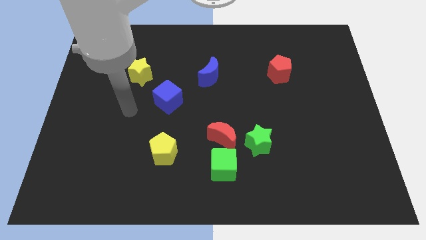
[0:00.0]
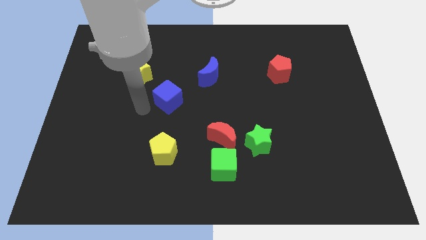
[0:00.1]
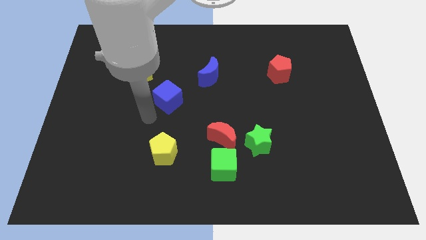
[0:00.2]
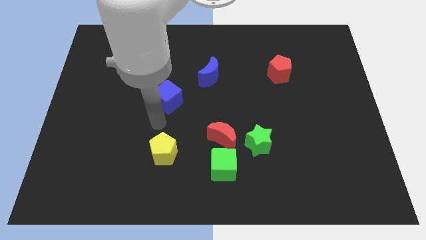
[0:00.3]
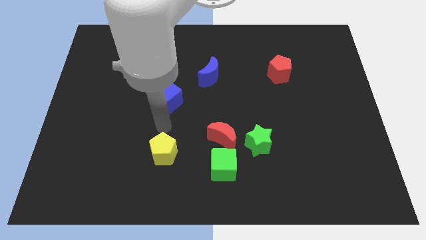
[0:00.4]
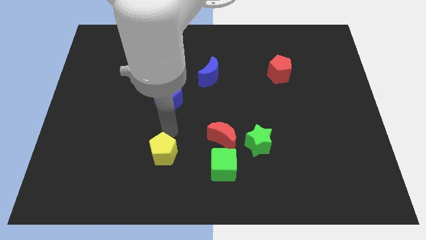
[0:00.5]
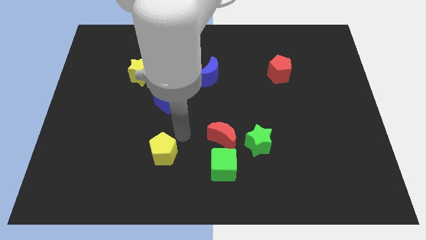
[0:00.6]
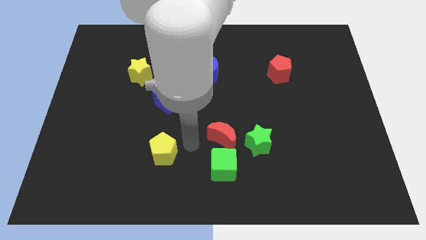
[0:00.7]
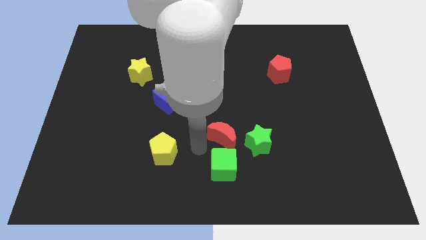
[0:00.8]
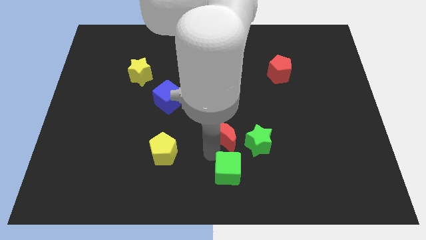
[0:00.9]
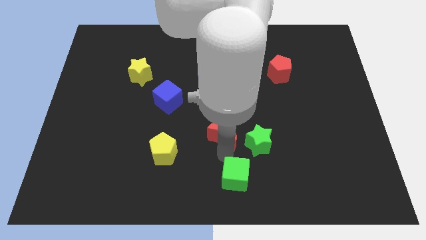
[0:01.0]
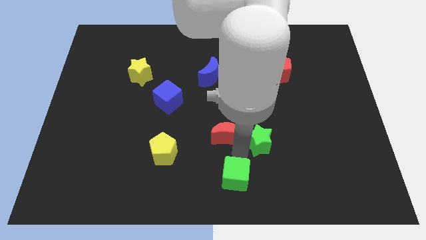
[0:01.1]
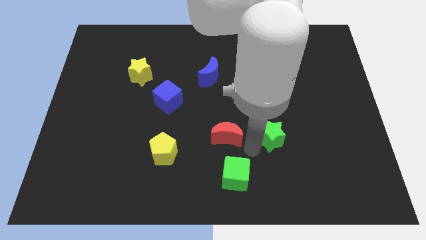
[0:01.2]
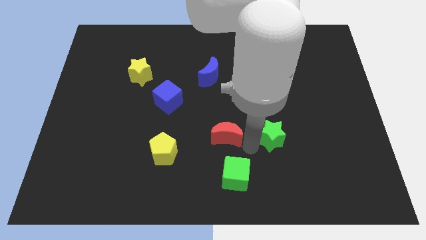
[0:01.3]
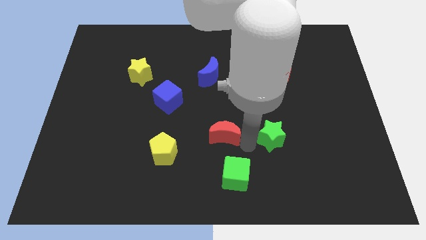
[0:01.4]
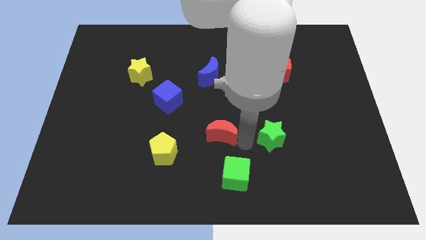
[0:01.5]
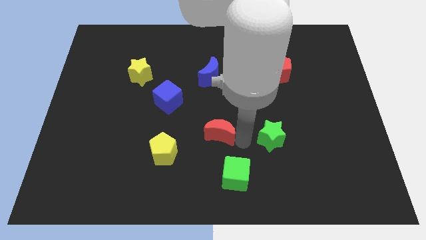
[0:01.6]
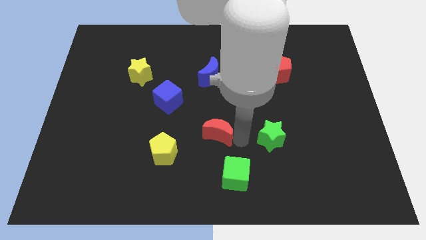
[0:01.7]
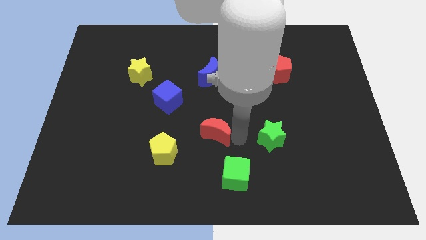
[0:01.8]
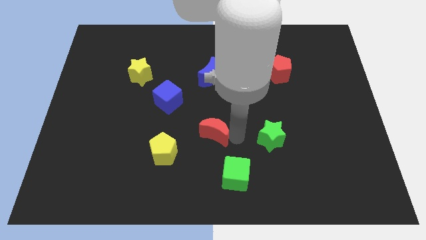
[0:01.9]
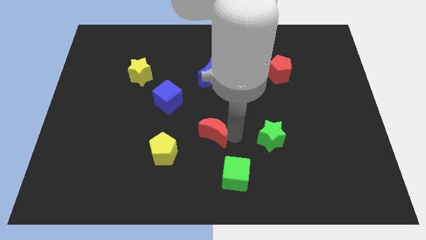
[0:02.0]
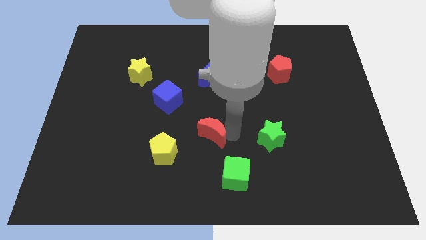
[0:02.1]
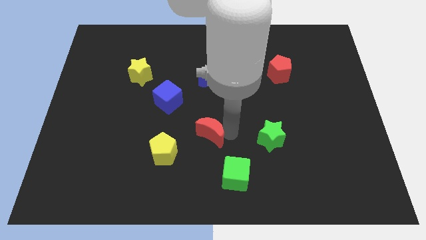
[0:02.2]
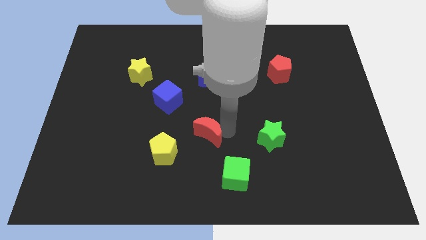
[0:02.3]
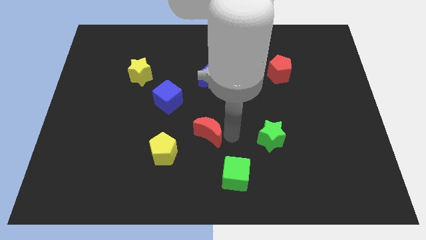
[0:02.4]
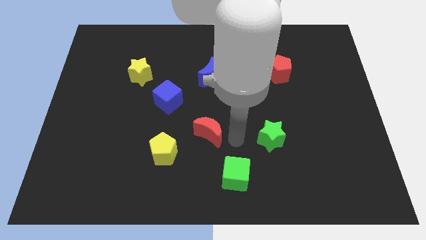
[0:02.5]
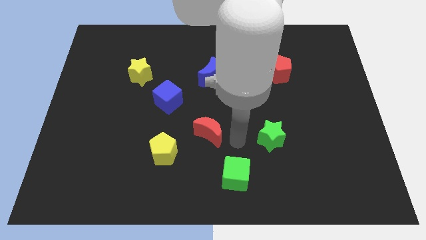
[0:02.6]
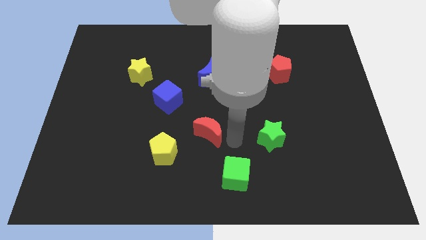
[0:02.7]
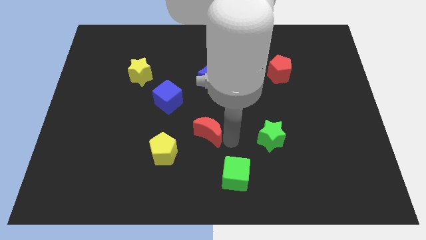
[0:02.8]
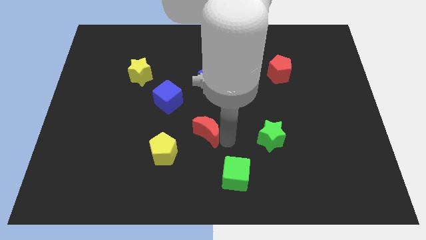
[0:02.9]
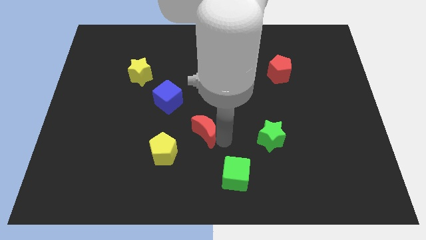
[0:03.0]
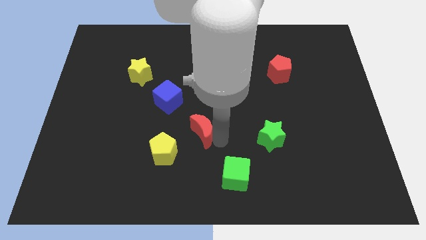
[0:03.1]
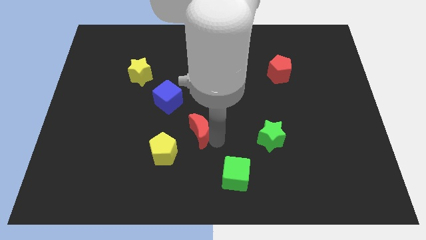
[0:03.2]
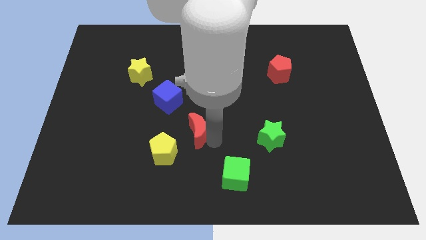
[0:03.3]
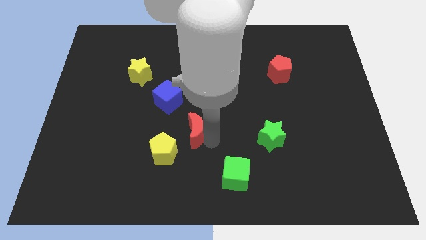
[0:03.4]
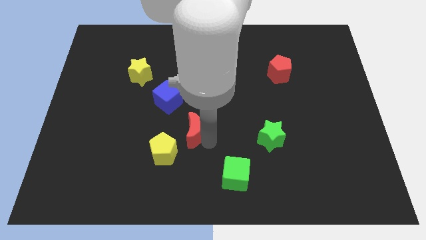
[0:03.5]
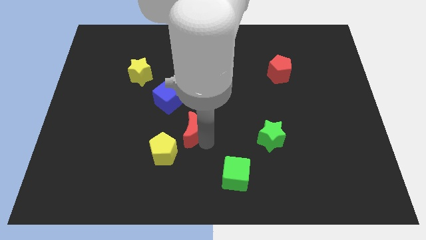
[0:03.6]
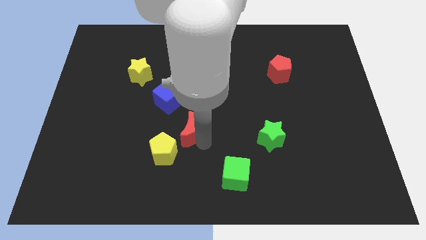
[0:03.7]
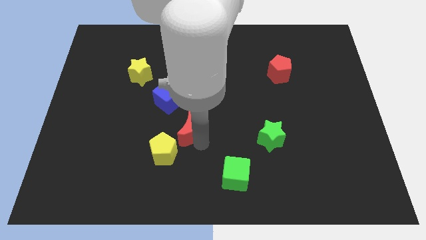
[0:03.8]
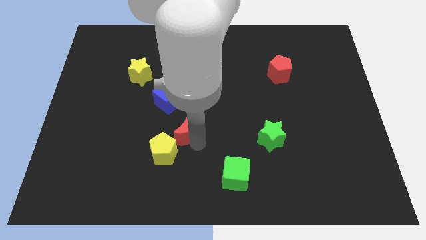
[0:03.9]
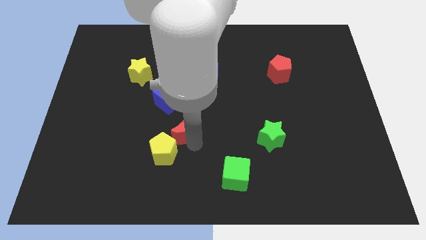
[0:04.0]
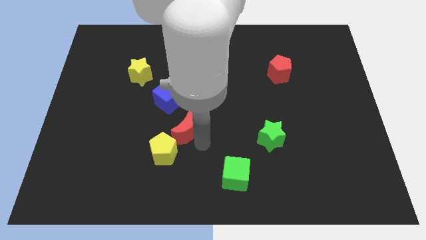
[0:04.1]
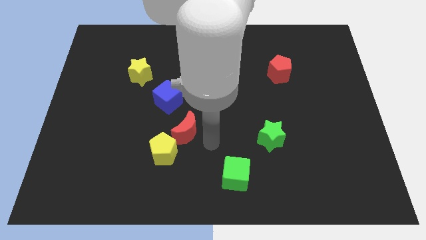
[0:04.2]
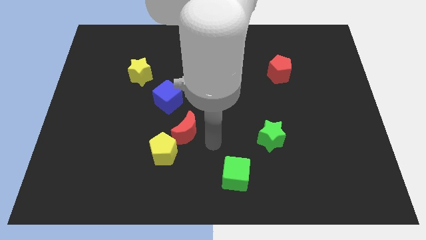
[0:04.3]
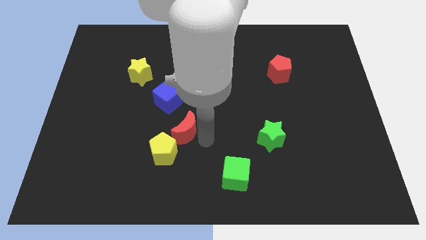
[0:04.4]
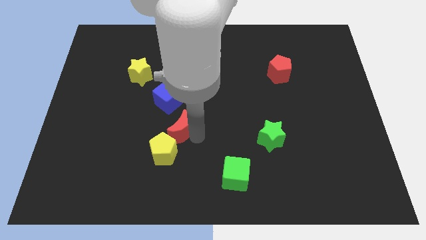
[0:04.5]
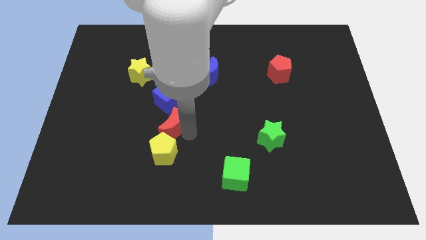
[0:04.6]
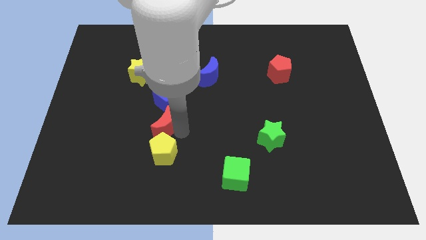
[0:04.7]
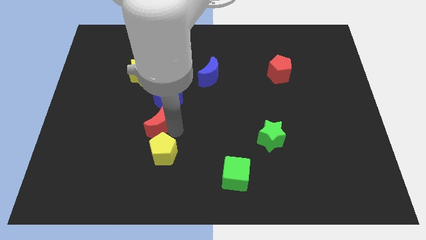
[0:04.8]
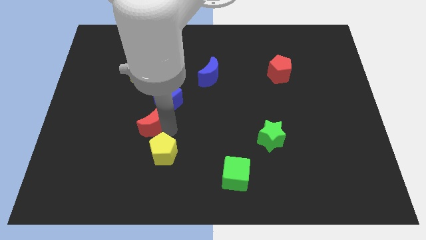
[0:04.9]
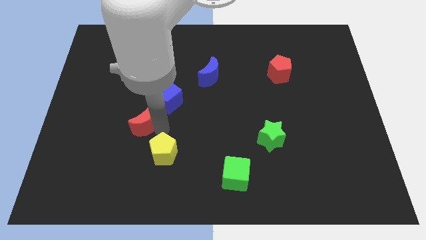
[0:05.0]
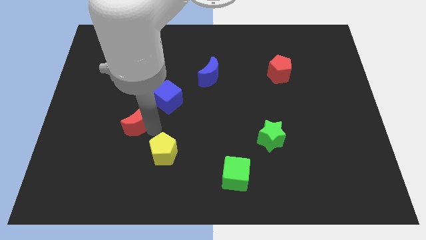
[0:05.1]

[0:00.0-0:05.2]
put the red moon to the bottom side of the yellow star

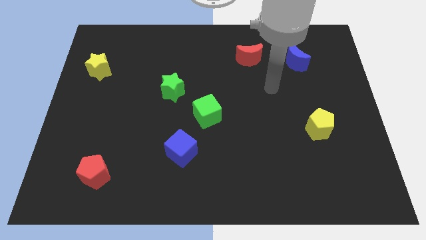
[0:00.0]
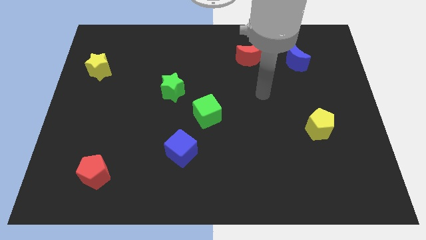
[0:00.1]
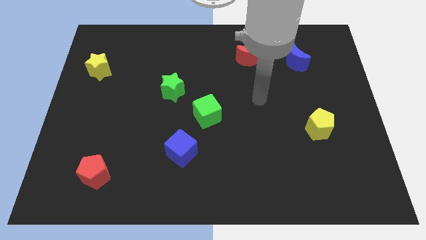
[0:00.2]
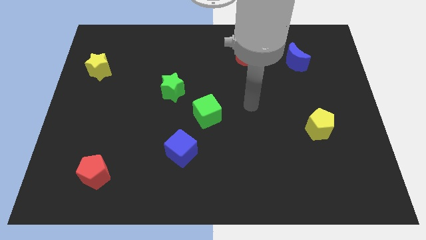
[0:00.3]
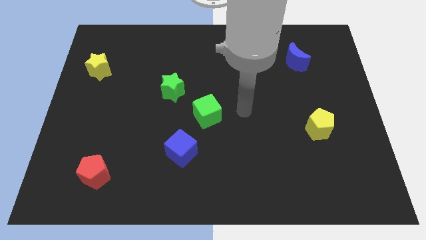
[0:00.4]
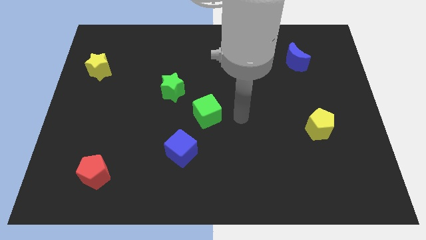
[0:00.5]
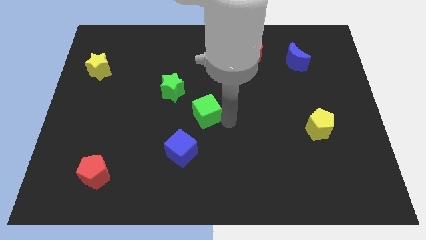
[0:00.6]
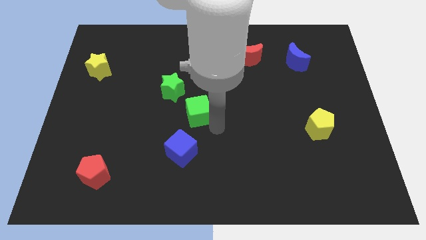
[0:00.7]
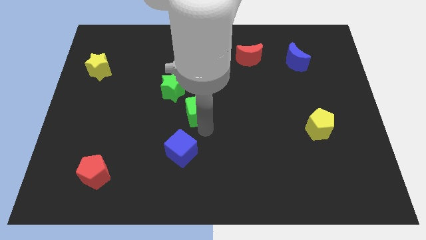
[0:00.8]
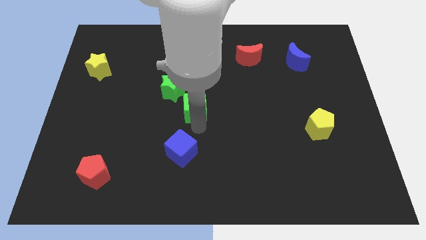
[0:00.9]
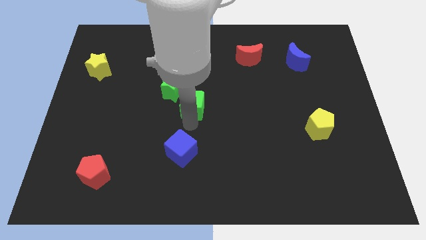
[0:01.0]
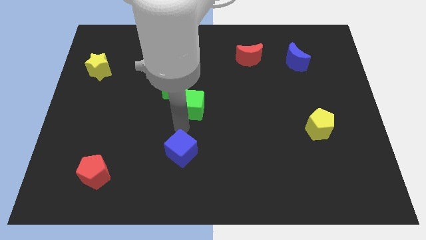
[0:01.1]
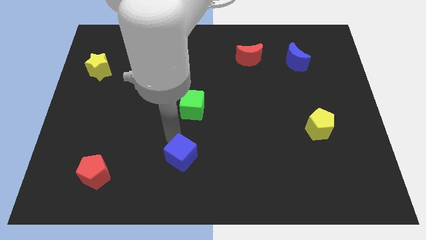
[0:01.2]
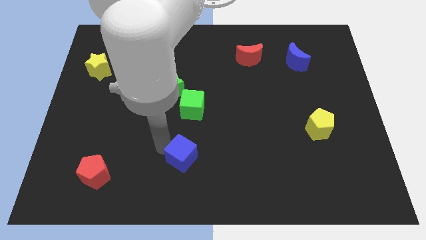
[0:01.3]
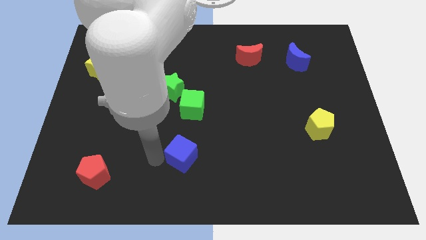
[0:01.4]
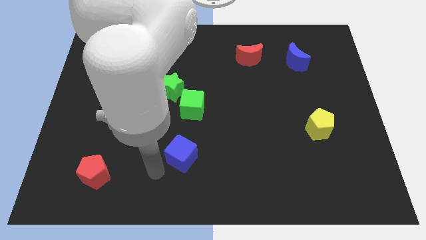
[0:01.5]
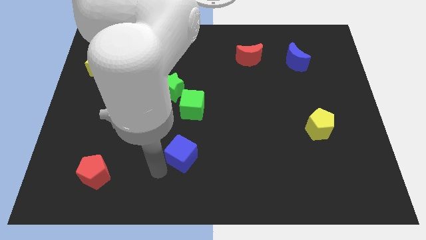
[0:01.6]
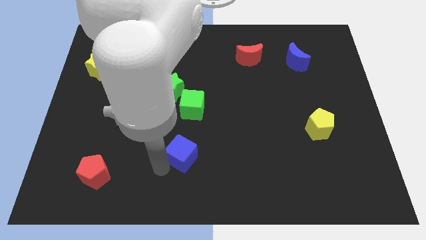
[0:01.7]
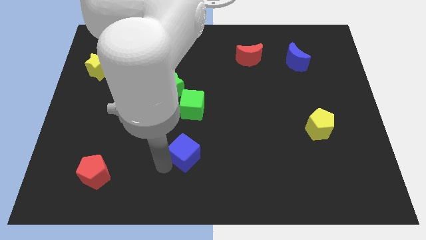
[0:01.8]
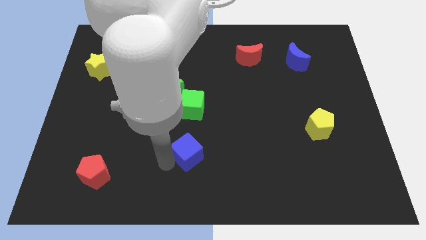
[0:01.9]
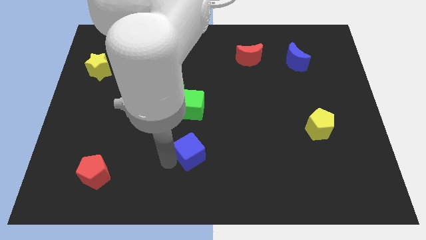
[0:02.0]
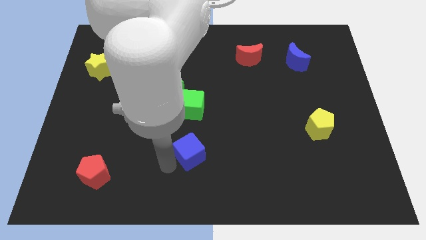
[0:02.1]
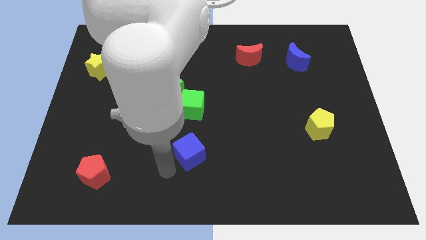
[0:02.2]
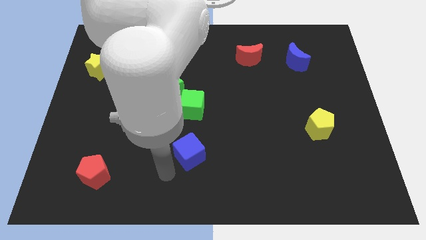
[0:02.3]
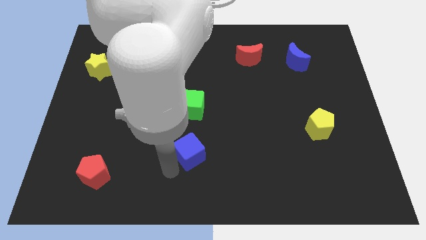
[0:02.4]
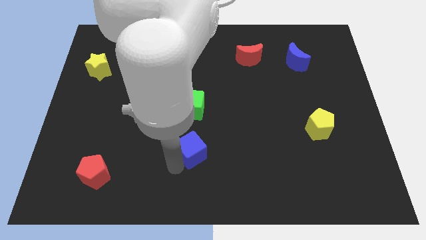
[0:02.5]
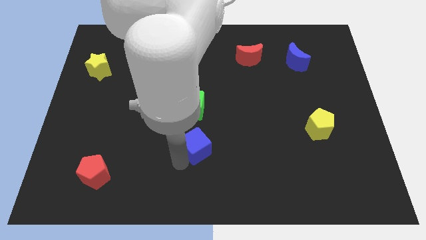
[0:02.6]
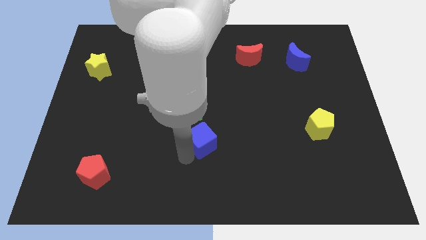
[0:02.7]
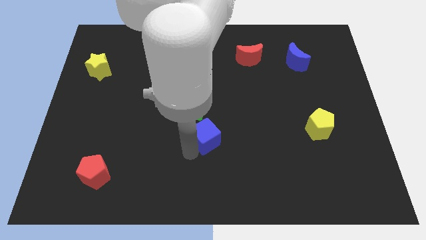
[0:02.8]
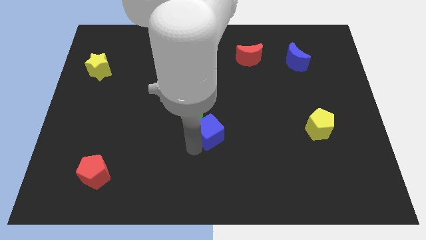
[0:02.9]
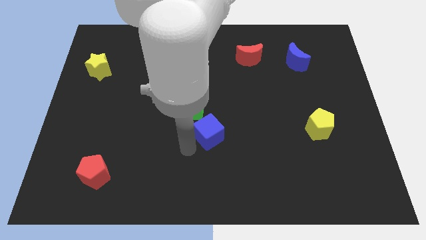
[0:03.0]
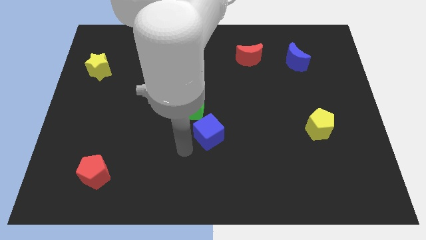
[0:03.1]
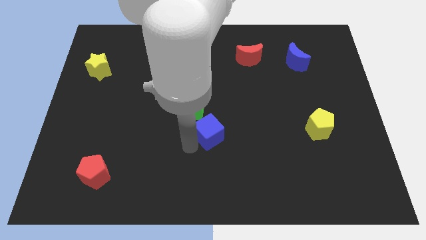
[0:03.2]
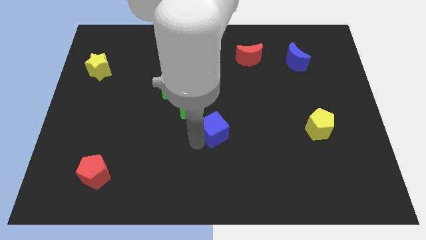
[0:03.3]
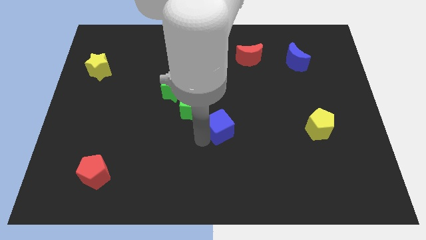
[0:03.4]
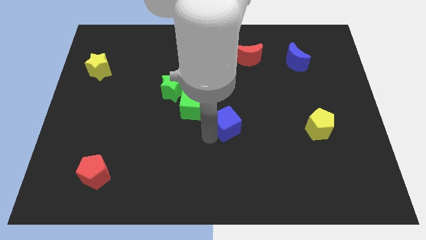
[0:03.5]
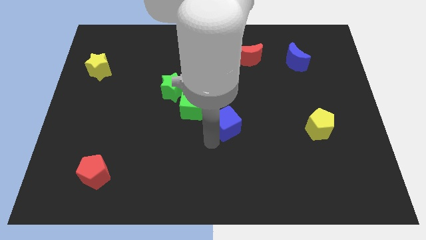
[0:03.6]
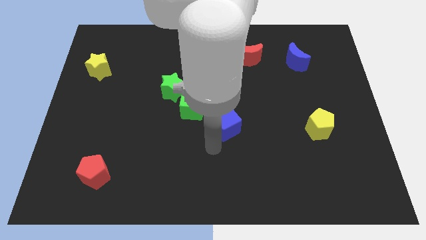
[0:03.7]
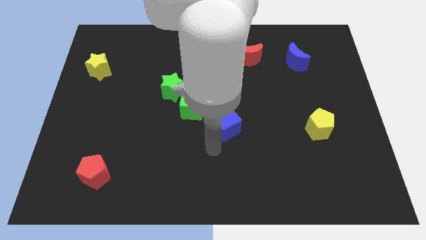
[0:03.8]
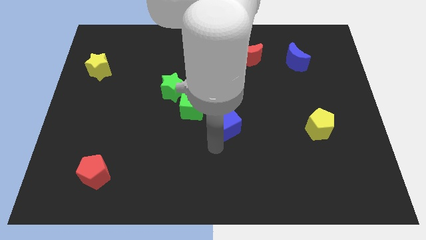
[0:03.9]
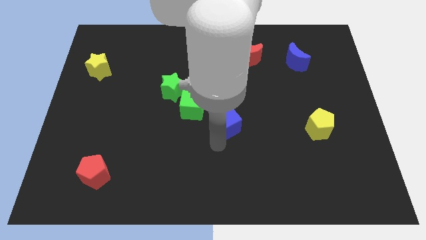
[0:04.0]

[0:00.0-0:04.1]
put the blue cube to the right side of the green cube
